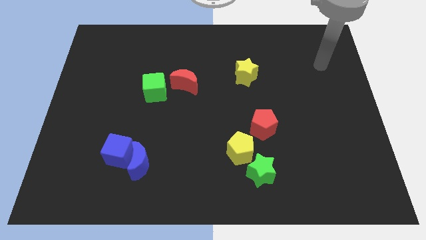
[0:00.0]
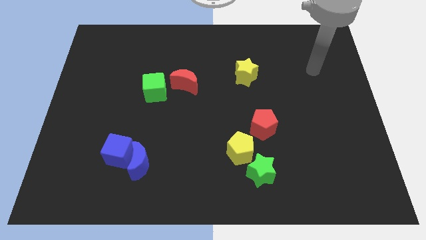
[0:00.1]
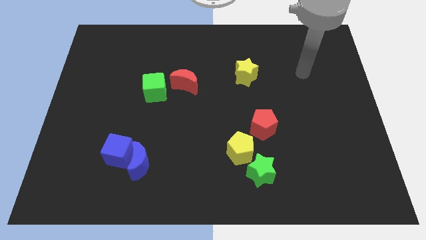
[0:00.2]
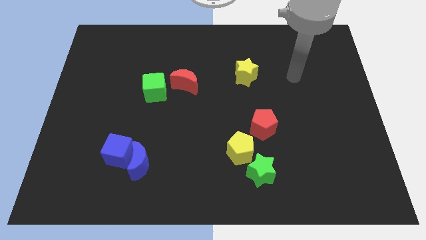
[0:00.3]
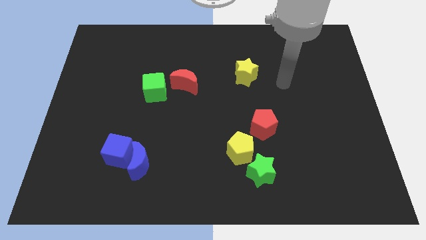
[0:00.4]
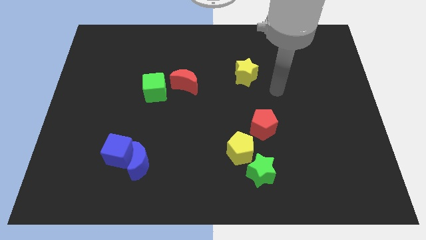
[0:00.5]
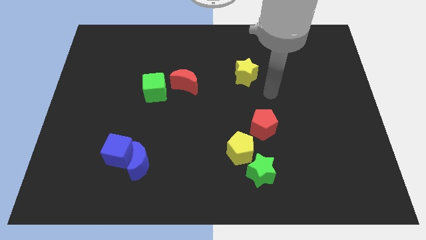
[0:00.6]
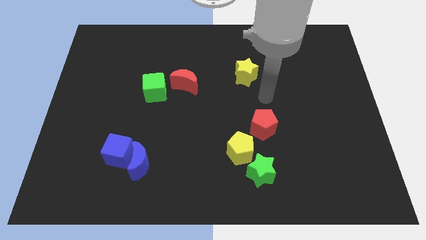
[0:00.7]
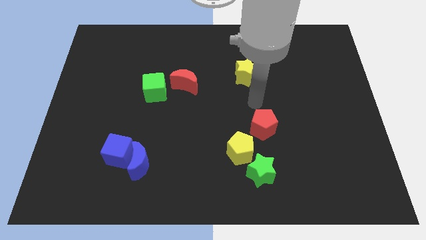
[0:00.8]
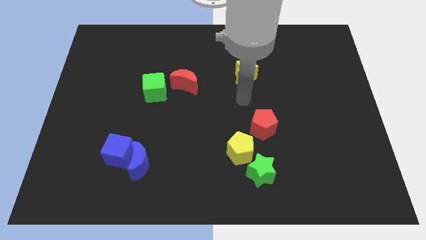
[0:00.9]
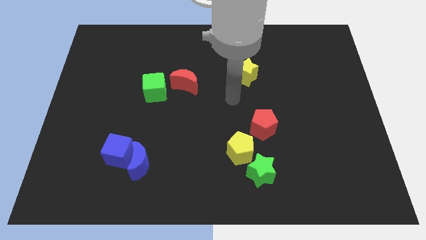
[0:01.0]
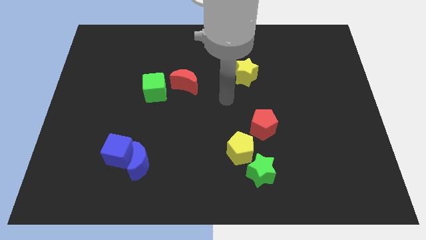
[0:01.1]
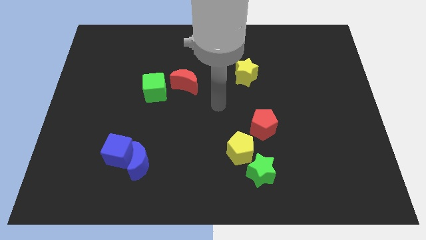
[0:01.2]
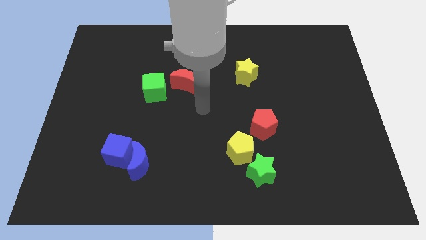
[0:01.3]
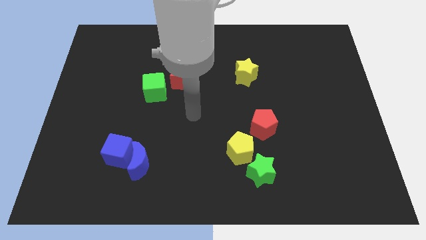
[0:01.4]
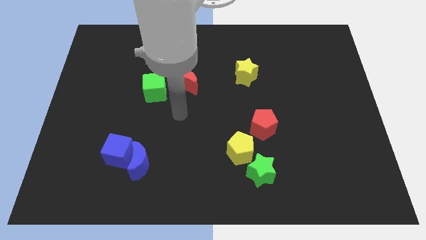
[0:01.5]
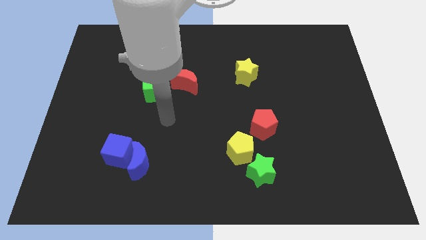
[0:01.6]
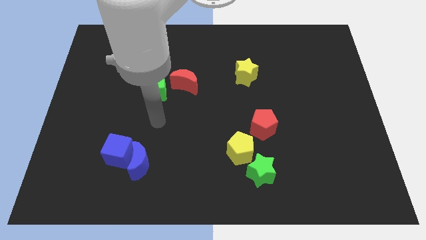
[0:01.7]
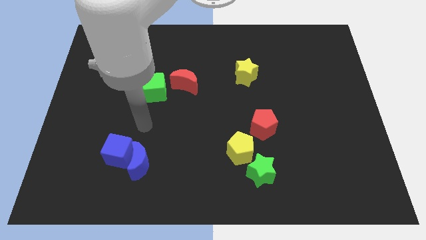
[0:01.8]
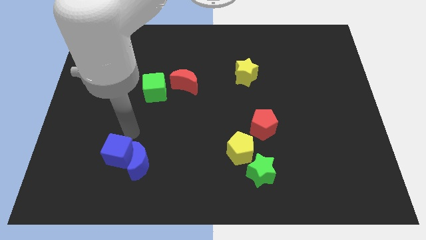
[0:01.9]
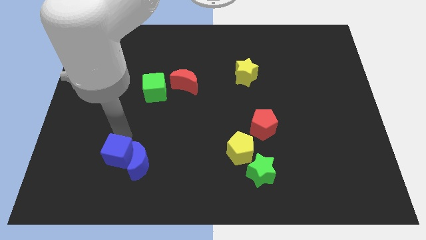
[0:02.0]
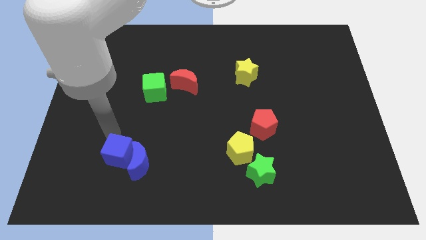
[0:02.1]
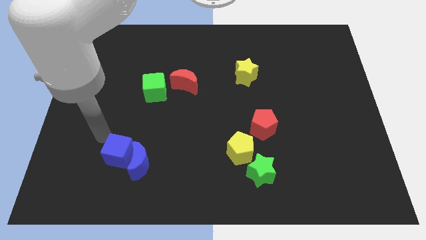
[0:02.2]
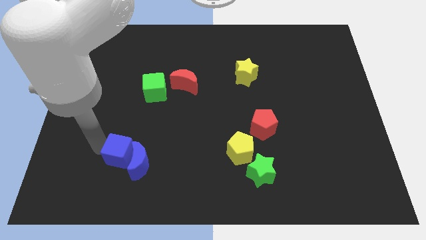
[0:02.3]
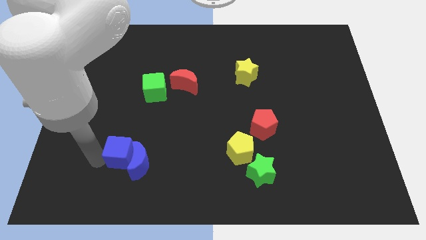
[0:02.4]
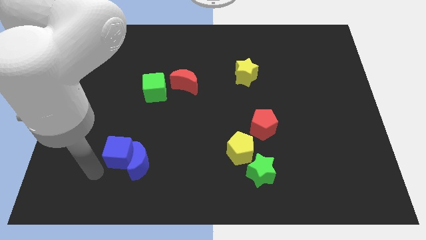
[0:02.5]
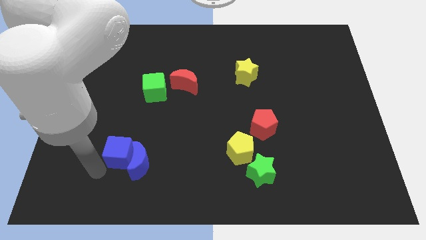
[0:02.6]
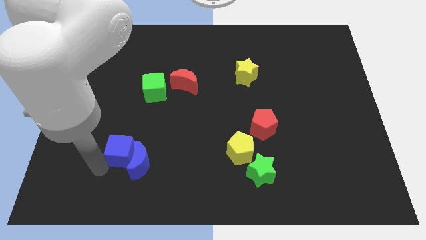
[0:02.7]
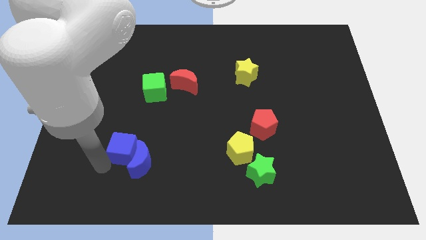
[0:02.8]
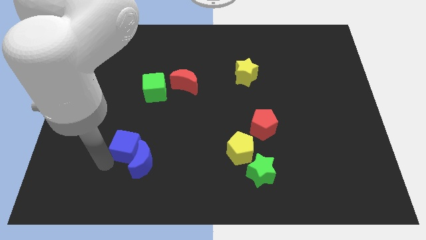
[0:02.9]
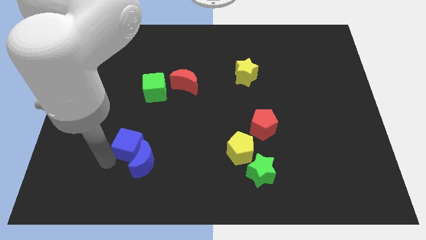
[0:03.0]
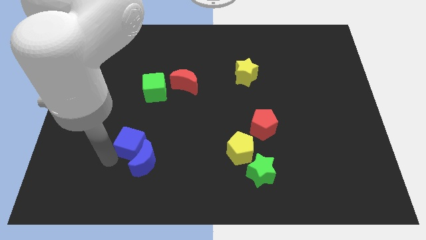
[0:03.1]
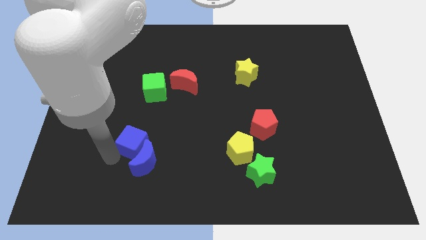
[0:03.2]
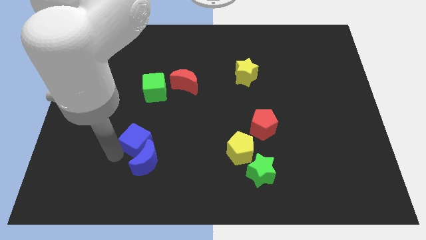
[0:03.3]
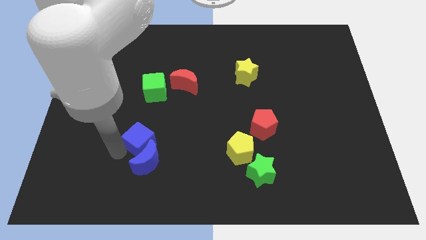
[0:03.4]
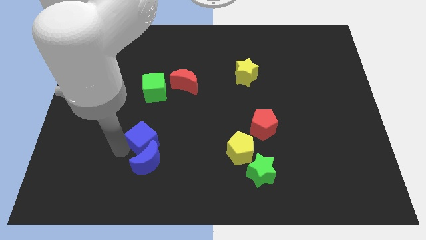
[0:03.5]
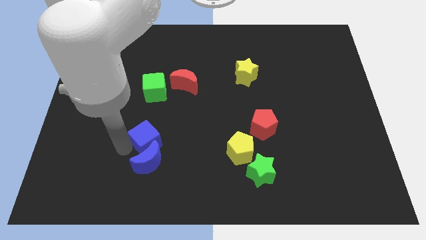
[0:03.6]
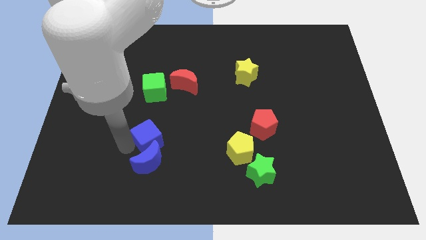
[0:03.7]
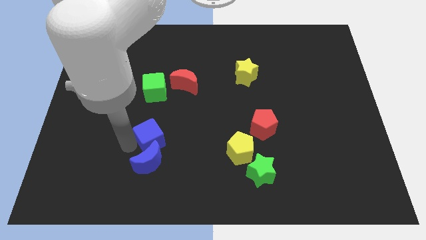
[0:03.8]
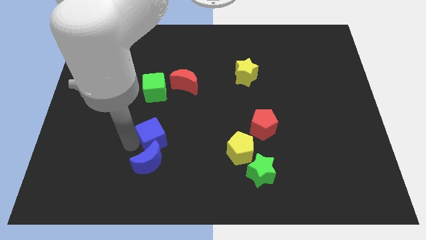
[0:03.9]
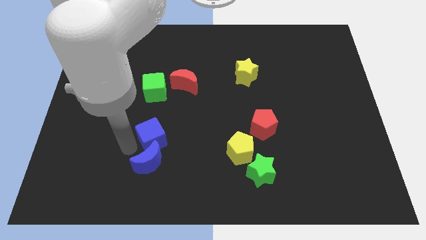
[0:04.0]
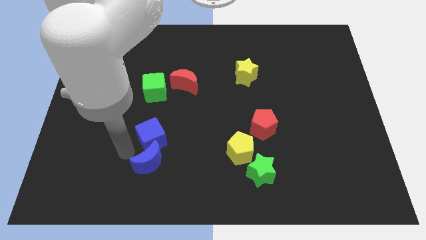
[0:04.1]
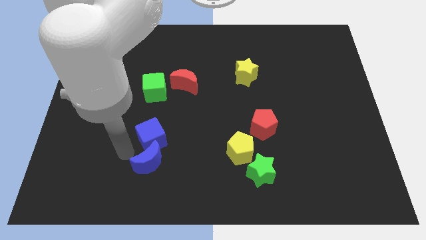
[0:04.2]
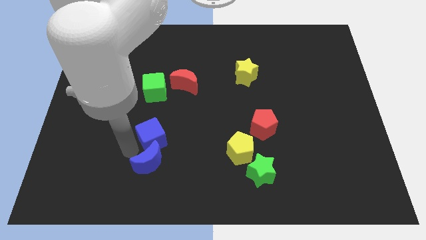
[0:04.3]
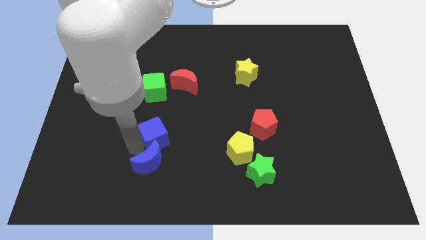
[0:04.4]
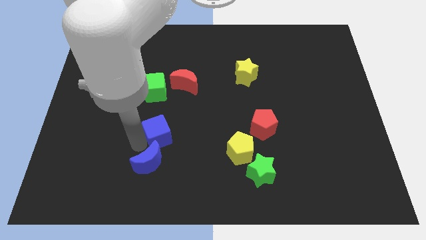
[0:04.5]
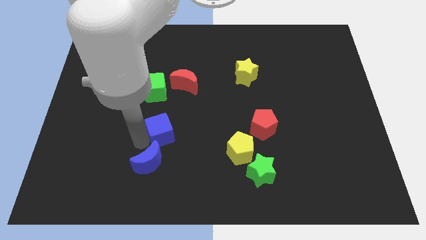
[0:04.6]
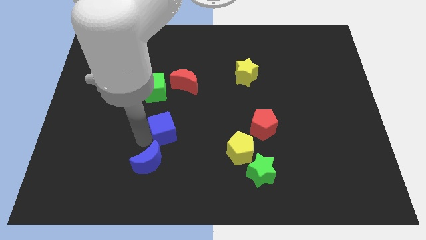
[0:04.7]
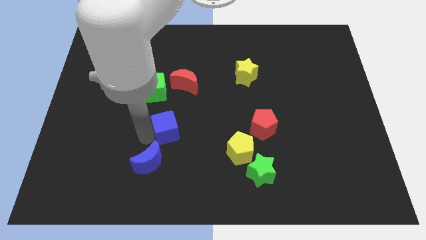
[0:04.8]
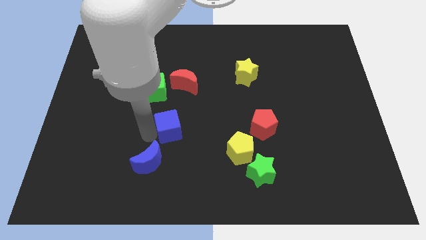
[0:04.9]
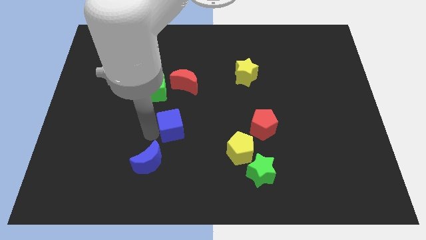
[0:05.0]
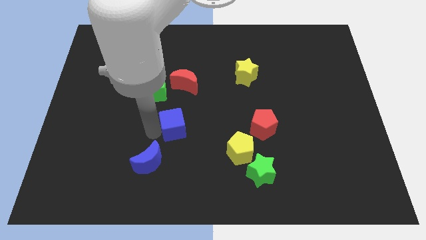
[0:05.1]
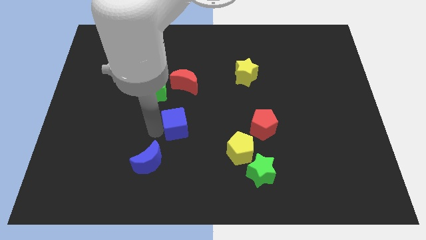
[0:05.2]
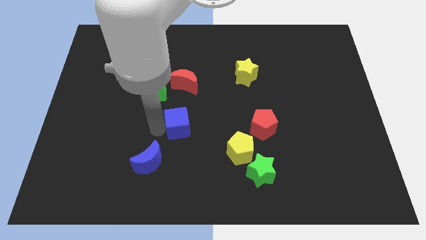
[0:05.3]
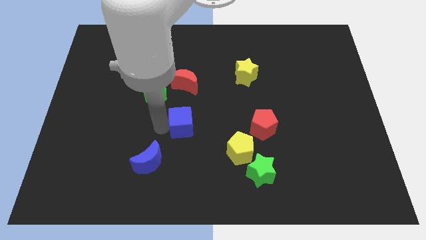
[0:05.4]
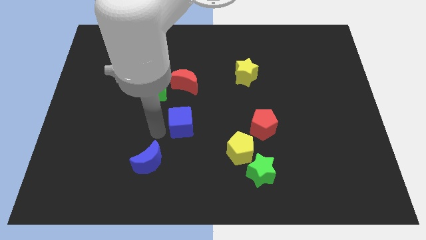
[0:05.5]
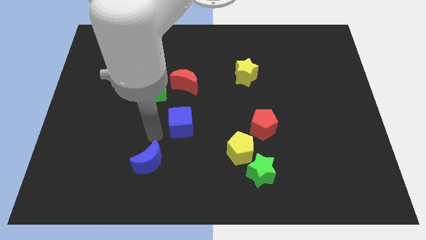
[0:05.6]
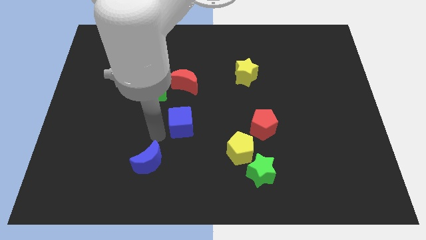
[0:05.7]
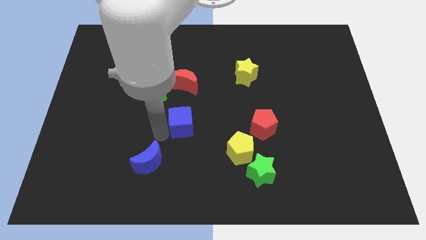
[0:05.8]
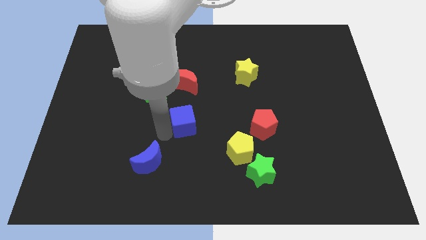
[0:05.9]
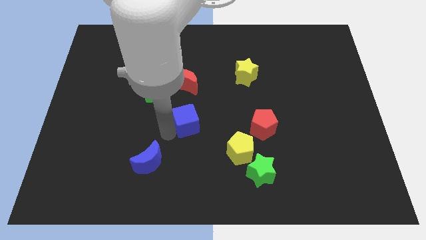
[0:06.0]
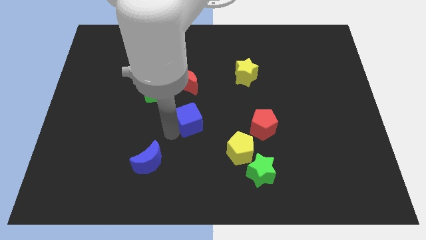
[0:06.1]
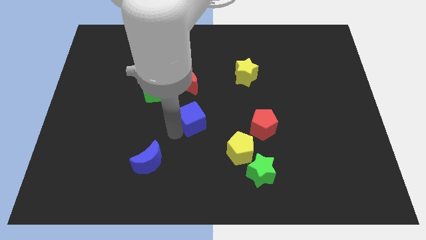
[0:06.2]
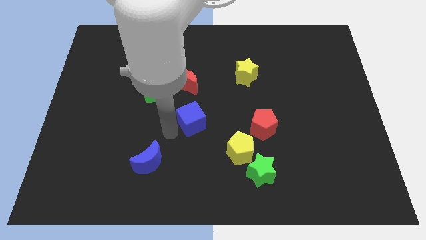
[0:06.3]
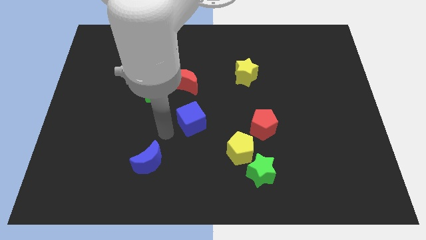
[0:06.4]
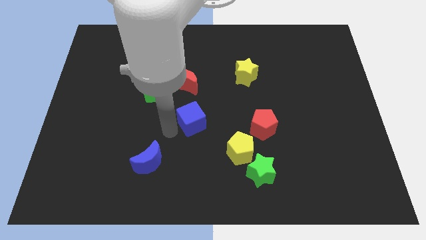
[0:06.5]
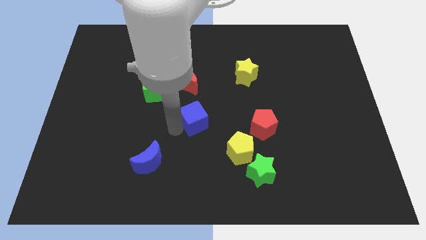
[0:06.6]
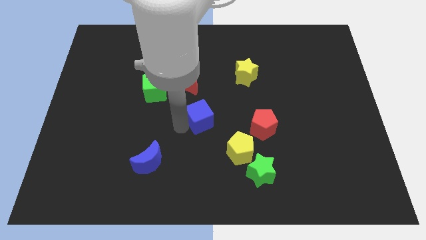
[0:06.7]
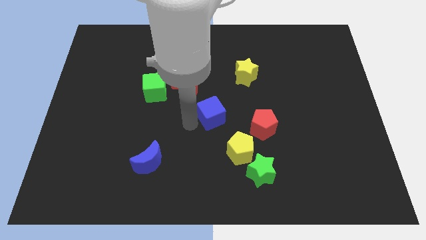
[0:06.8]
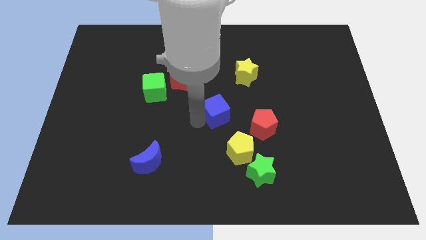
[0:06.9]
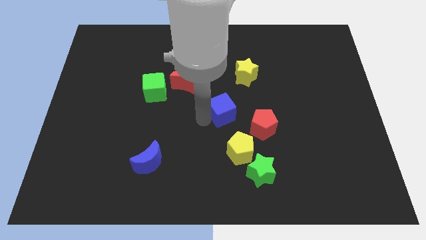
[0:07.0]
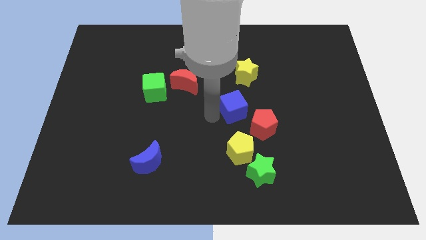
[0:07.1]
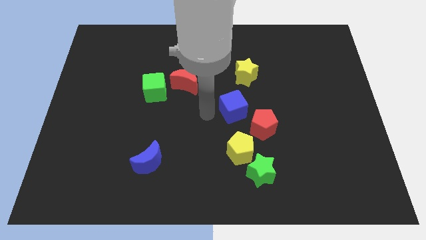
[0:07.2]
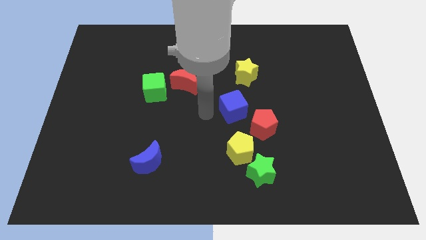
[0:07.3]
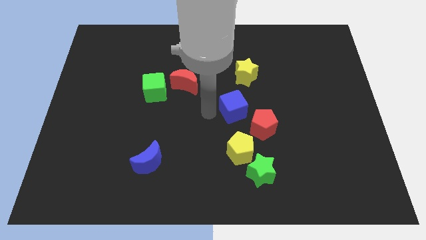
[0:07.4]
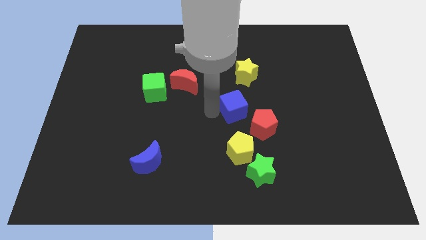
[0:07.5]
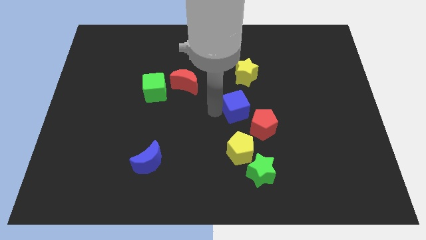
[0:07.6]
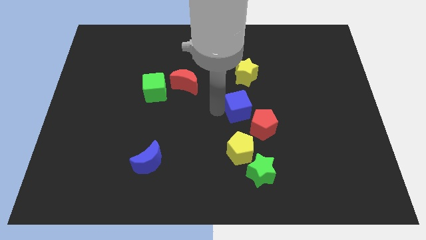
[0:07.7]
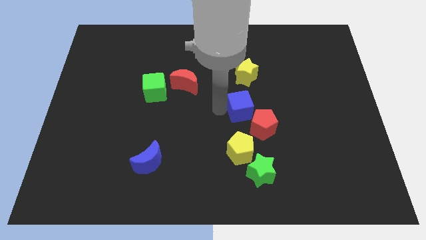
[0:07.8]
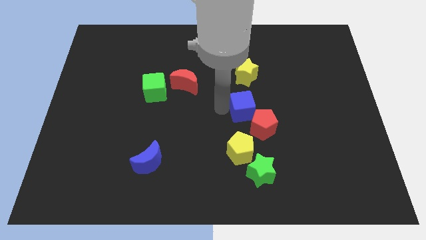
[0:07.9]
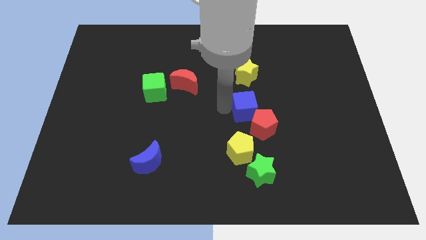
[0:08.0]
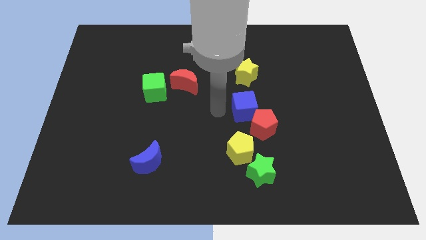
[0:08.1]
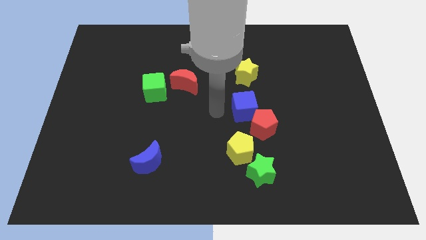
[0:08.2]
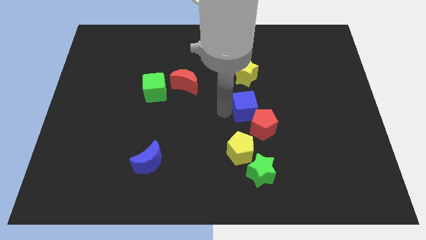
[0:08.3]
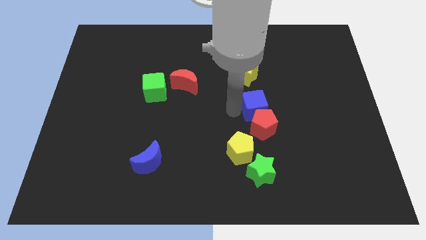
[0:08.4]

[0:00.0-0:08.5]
move the blue cube to the right
